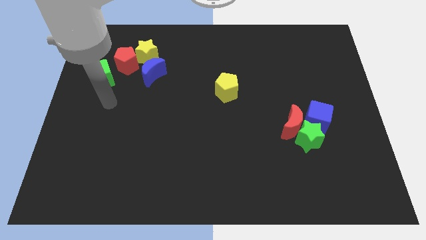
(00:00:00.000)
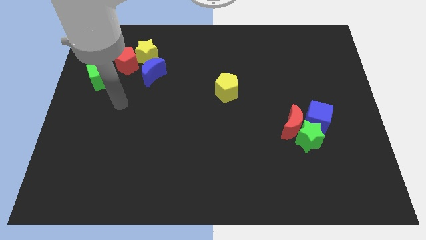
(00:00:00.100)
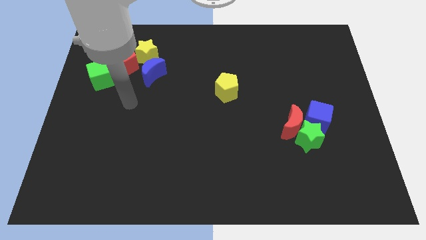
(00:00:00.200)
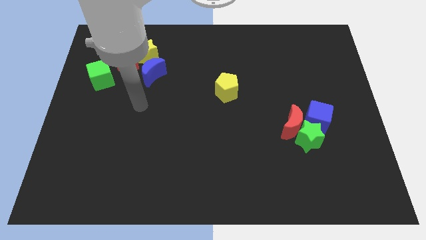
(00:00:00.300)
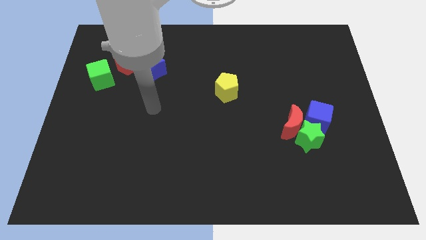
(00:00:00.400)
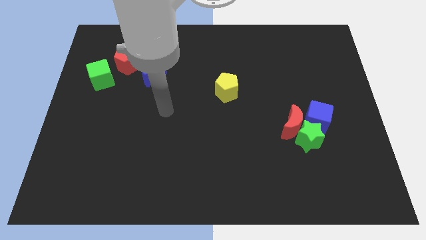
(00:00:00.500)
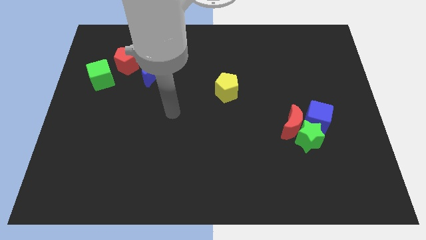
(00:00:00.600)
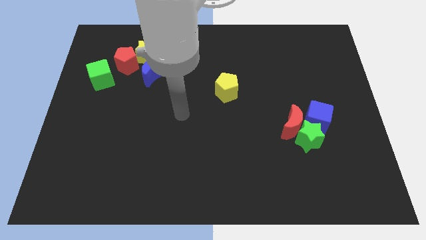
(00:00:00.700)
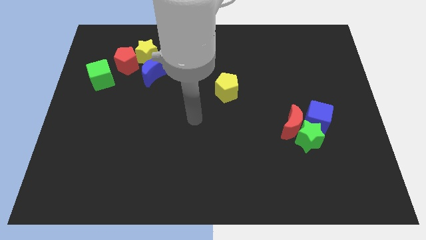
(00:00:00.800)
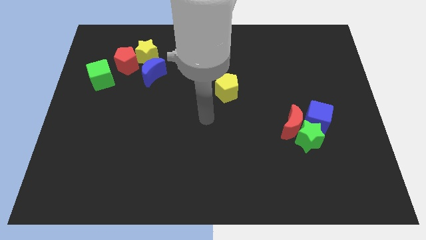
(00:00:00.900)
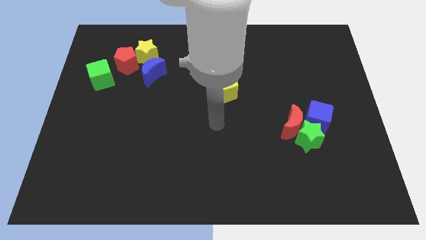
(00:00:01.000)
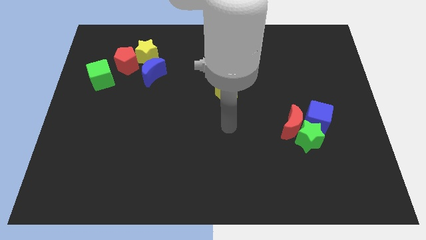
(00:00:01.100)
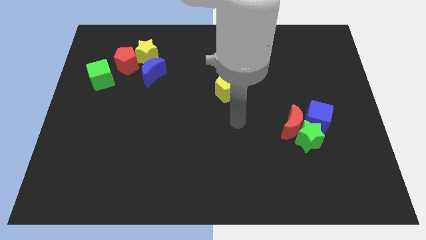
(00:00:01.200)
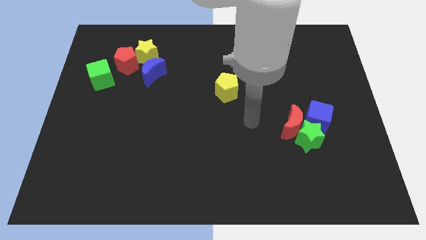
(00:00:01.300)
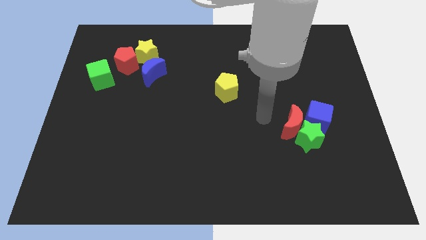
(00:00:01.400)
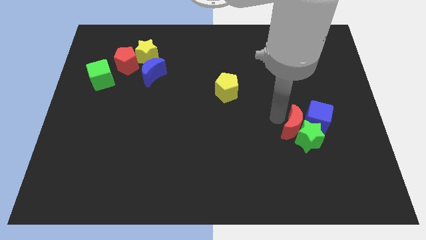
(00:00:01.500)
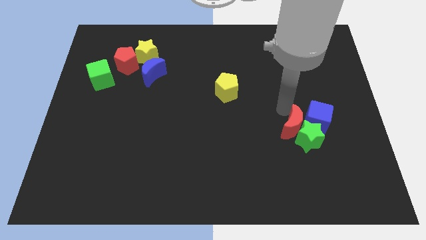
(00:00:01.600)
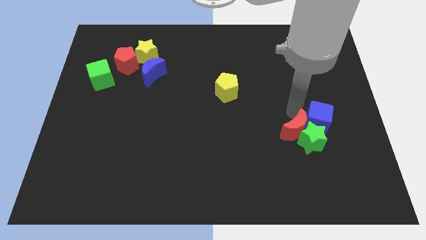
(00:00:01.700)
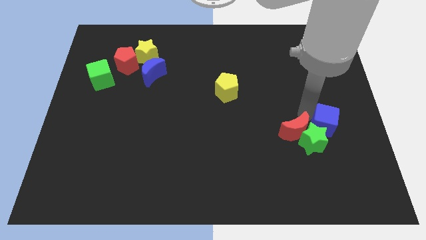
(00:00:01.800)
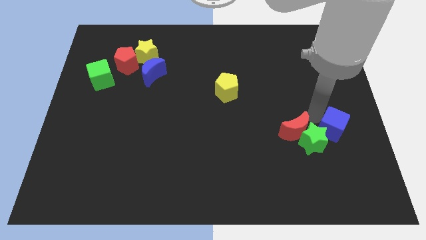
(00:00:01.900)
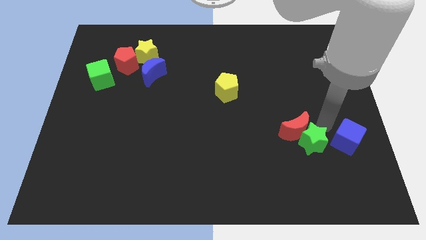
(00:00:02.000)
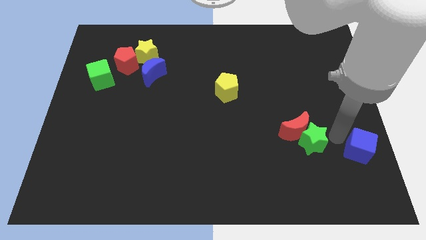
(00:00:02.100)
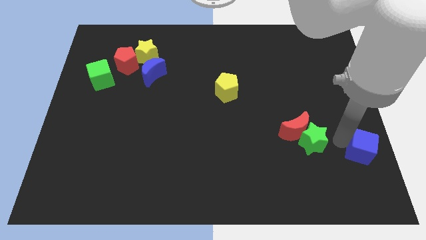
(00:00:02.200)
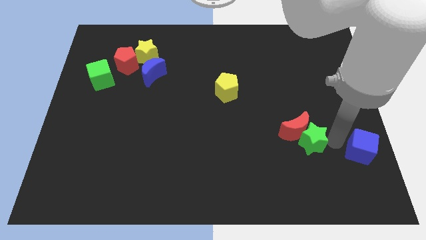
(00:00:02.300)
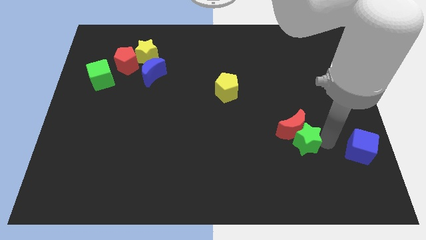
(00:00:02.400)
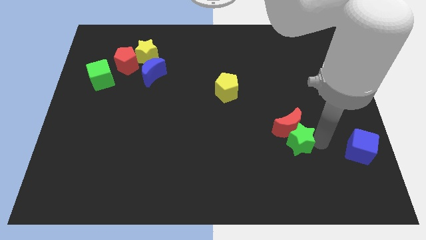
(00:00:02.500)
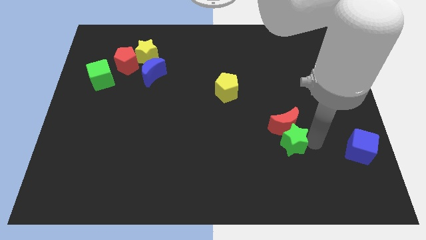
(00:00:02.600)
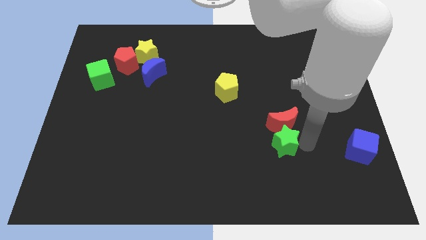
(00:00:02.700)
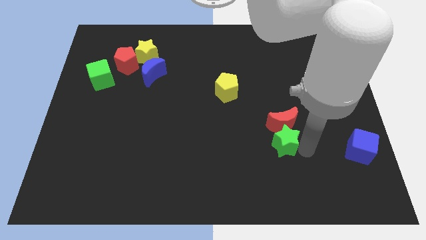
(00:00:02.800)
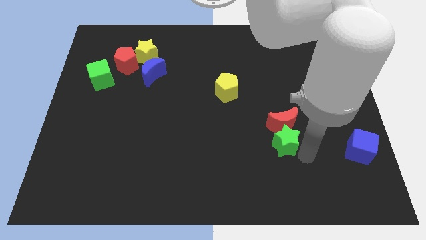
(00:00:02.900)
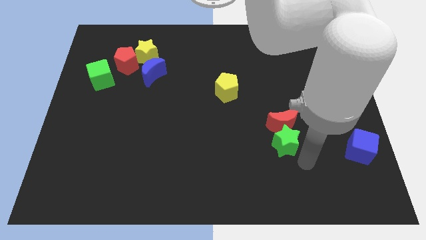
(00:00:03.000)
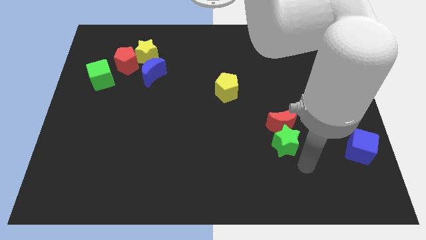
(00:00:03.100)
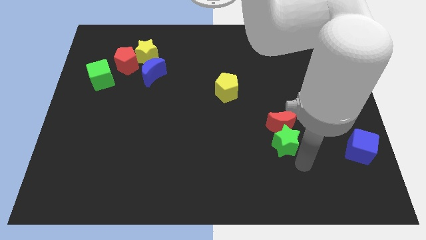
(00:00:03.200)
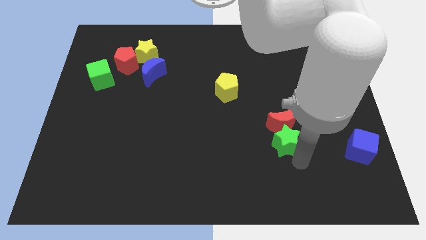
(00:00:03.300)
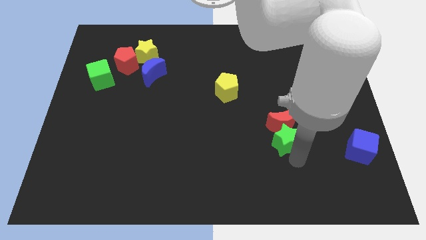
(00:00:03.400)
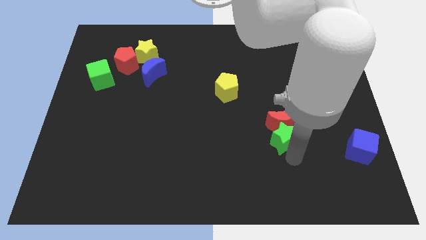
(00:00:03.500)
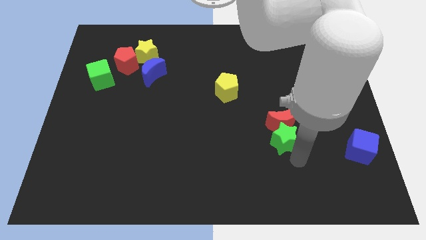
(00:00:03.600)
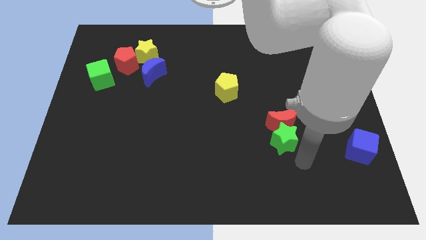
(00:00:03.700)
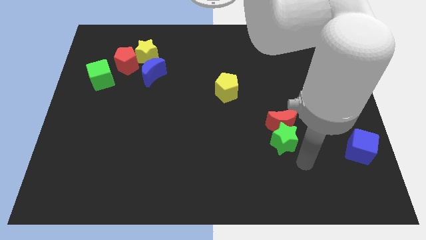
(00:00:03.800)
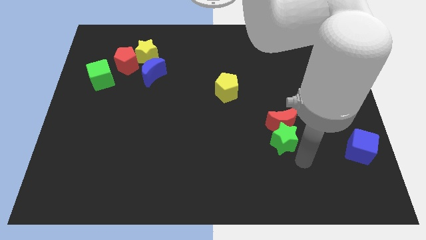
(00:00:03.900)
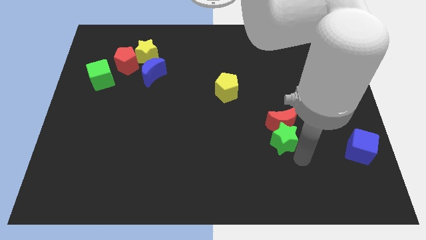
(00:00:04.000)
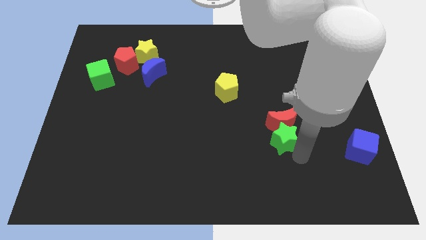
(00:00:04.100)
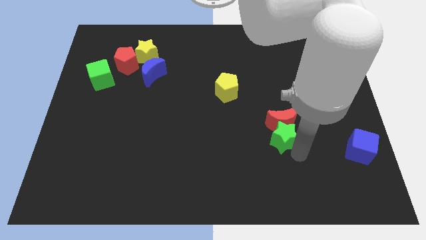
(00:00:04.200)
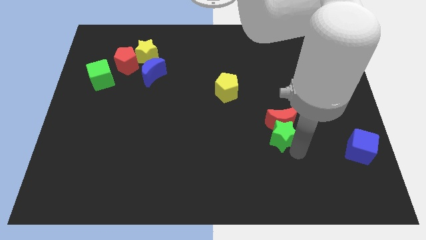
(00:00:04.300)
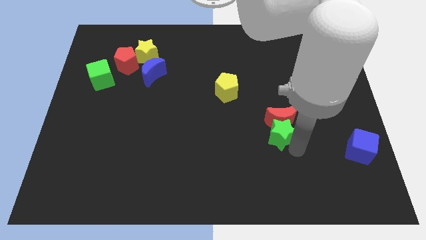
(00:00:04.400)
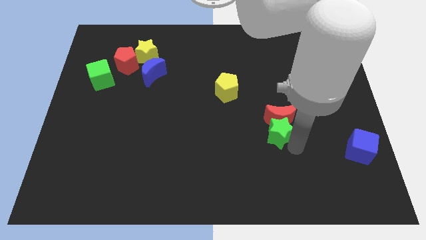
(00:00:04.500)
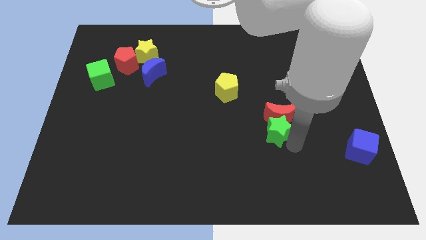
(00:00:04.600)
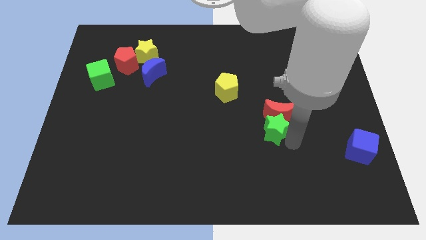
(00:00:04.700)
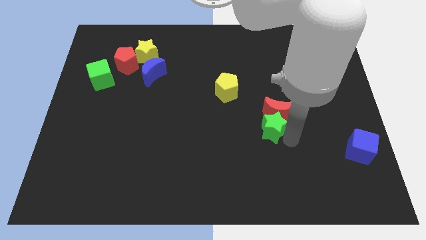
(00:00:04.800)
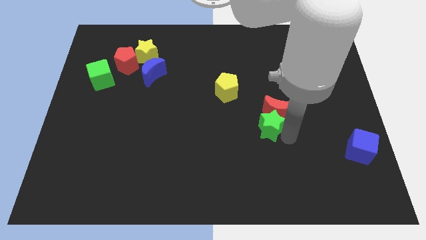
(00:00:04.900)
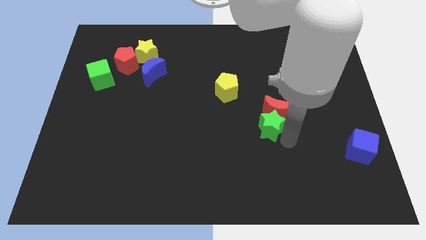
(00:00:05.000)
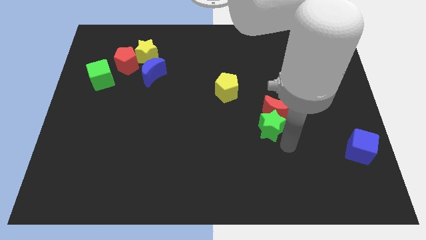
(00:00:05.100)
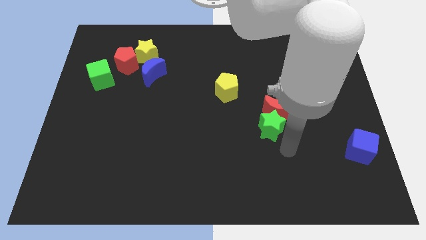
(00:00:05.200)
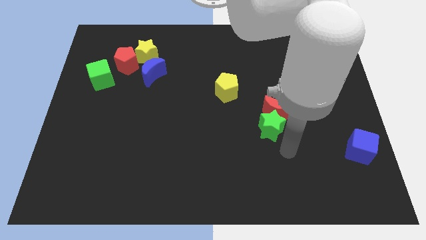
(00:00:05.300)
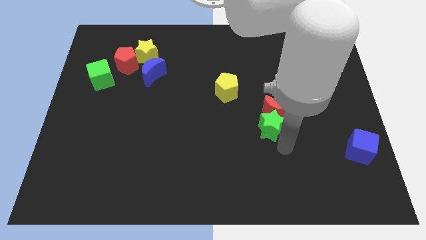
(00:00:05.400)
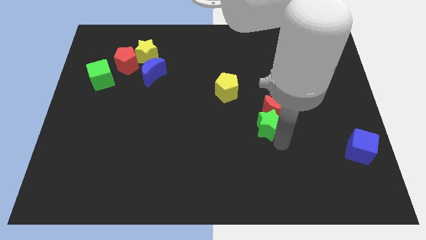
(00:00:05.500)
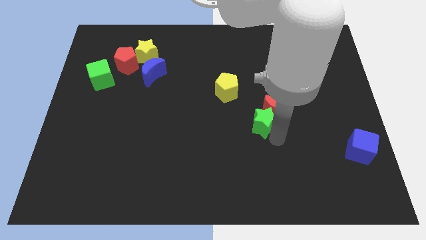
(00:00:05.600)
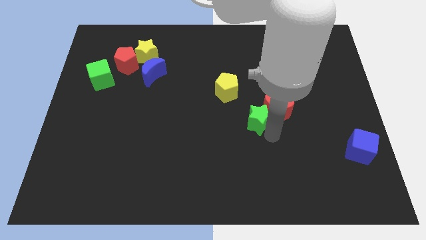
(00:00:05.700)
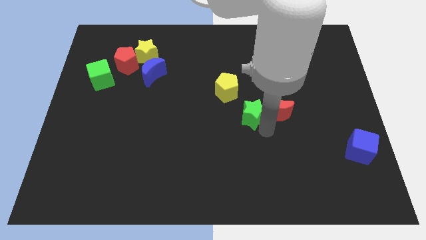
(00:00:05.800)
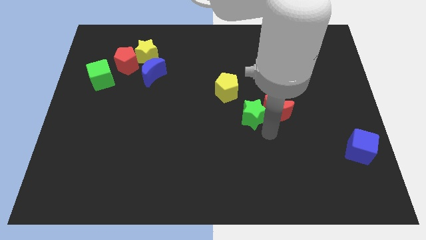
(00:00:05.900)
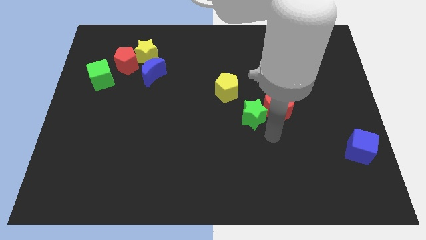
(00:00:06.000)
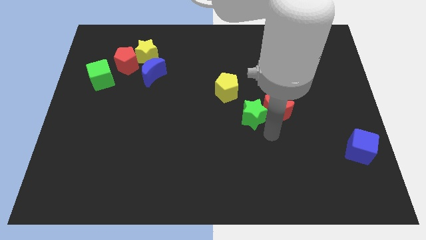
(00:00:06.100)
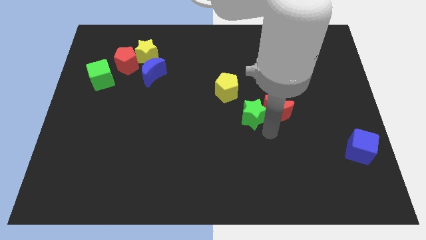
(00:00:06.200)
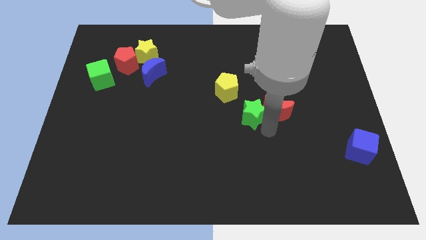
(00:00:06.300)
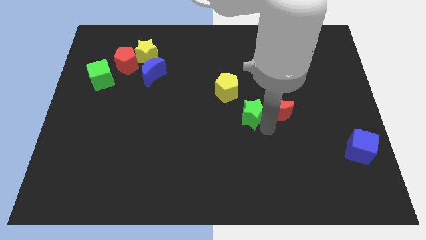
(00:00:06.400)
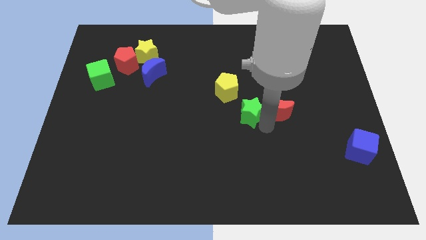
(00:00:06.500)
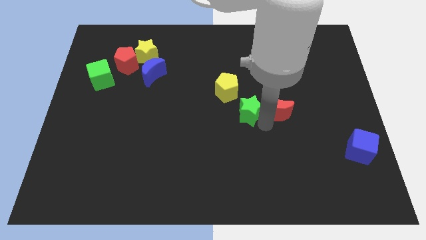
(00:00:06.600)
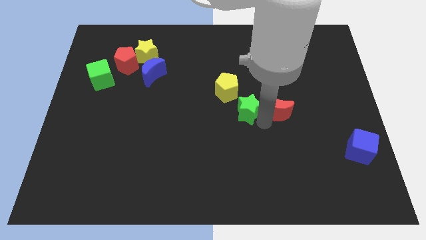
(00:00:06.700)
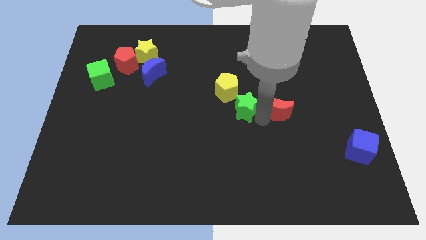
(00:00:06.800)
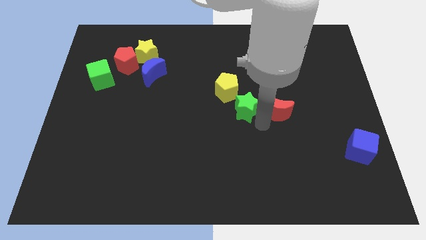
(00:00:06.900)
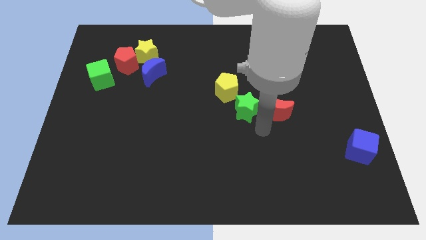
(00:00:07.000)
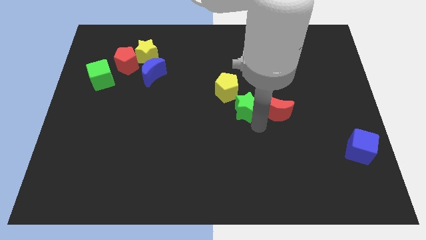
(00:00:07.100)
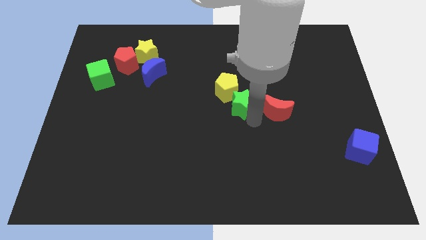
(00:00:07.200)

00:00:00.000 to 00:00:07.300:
move the green star close to the yellow pentagon
